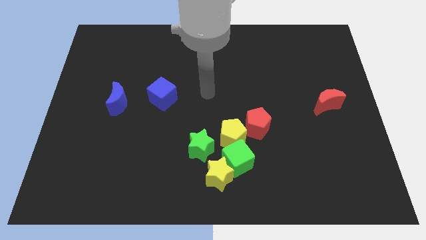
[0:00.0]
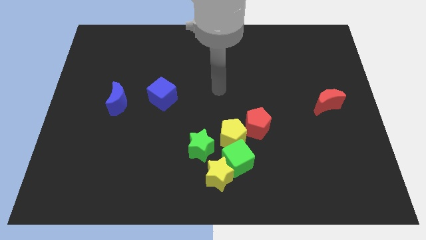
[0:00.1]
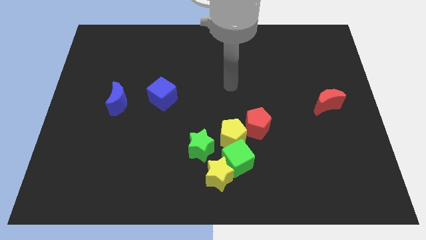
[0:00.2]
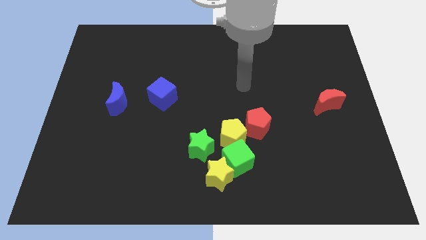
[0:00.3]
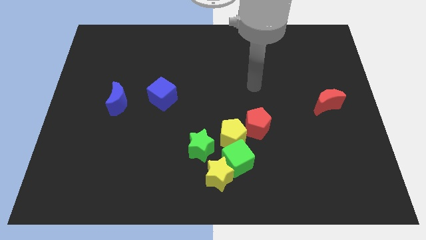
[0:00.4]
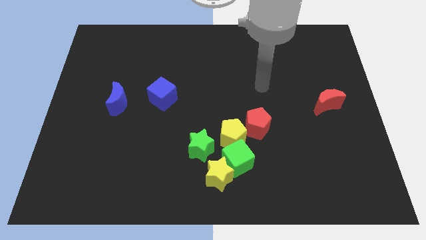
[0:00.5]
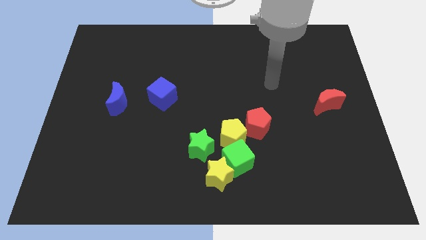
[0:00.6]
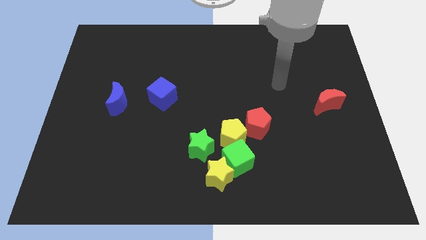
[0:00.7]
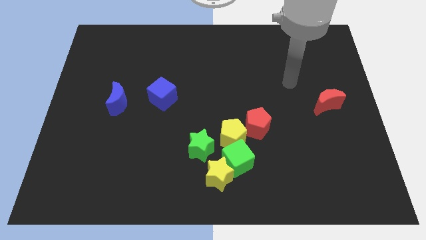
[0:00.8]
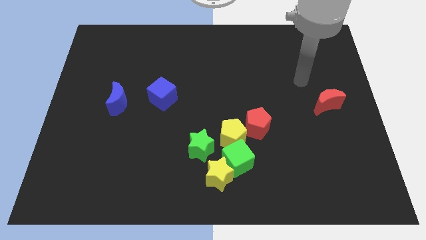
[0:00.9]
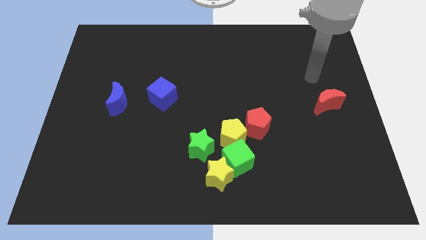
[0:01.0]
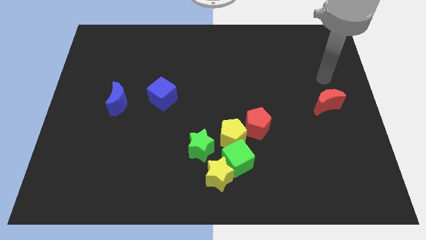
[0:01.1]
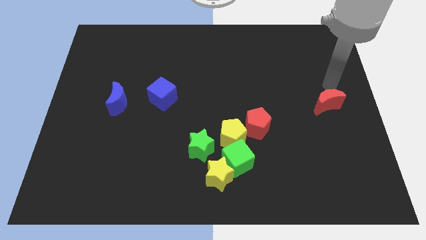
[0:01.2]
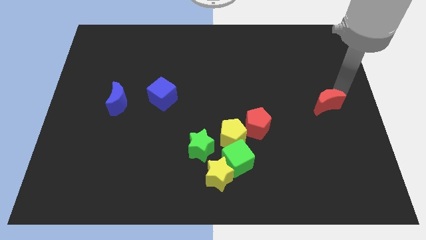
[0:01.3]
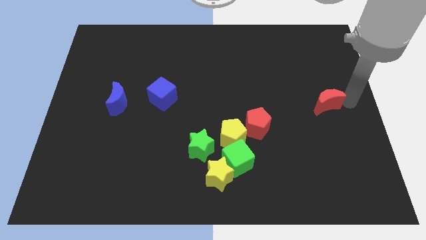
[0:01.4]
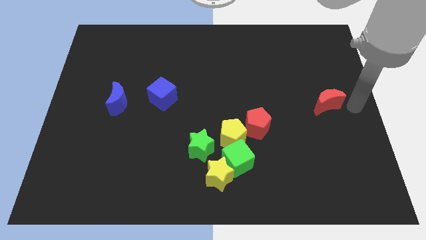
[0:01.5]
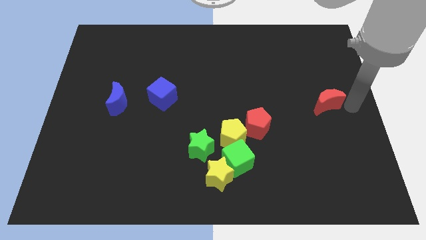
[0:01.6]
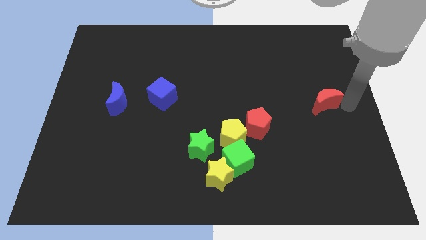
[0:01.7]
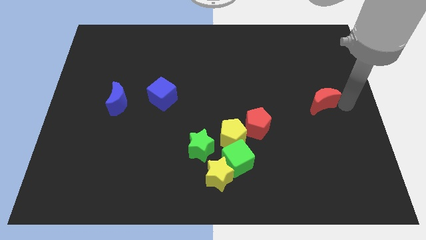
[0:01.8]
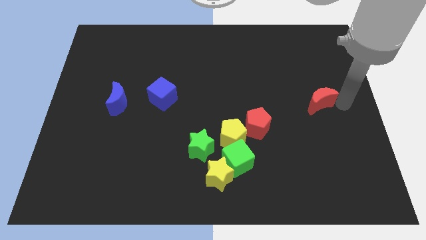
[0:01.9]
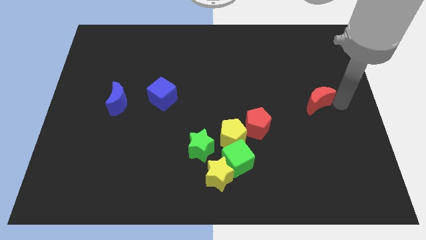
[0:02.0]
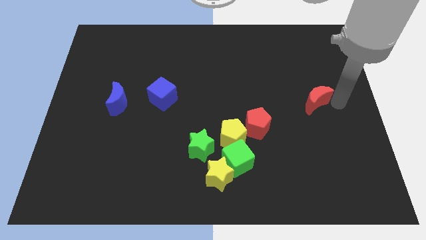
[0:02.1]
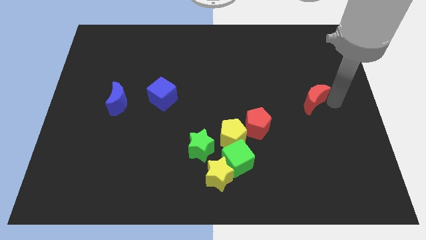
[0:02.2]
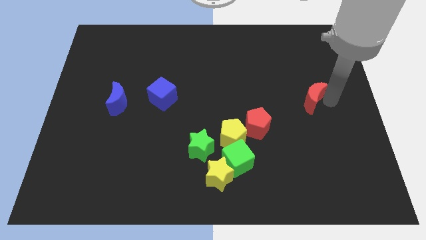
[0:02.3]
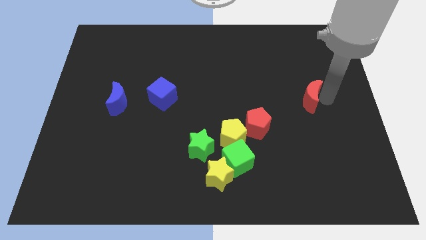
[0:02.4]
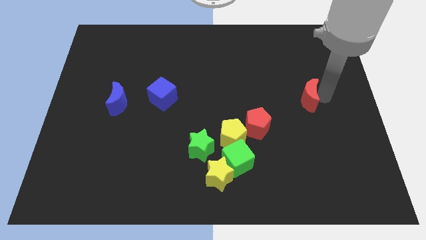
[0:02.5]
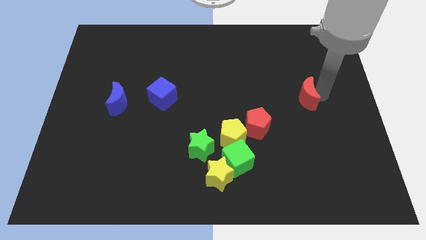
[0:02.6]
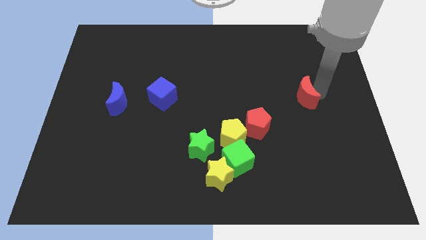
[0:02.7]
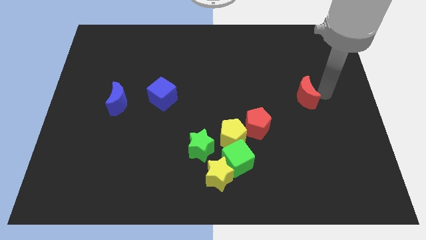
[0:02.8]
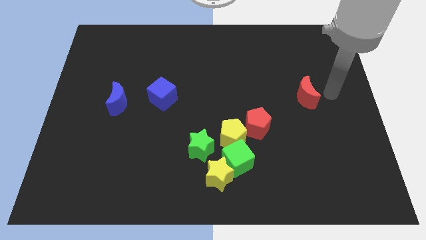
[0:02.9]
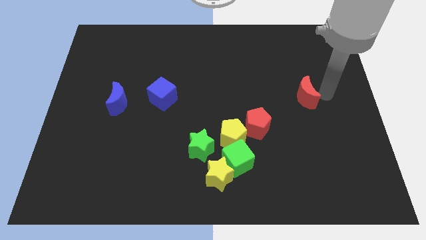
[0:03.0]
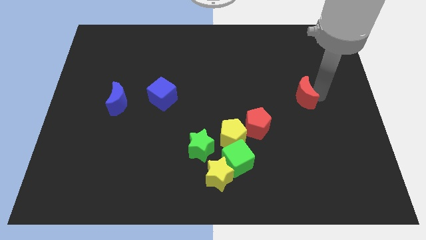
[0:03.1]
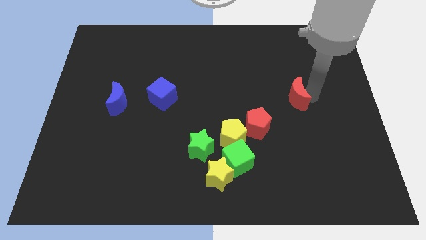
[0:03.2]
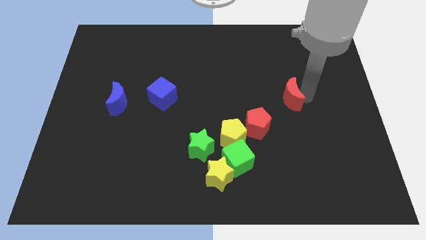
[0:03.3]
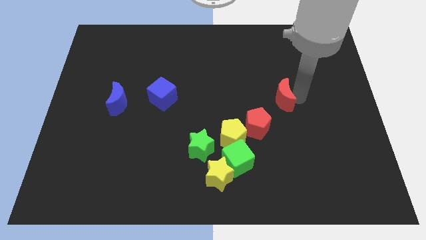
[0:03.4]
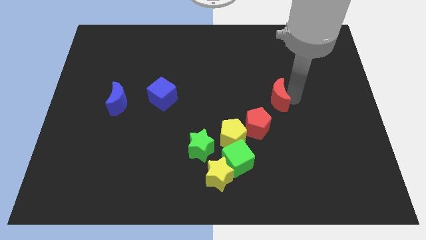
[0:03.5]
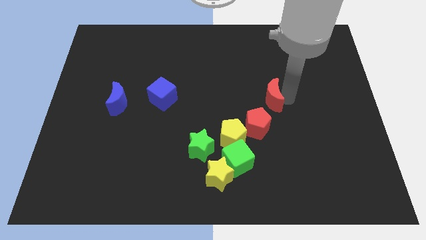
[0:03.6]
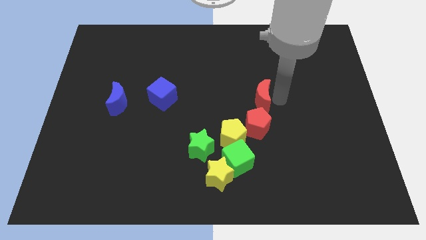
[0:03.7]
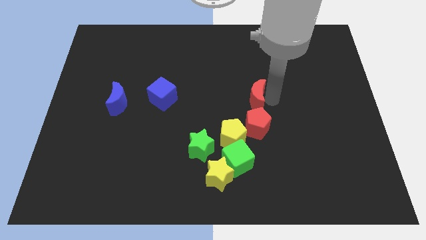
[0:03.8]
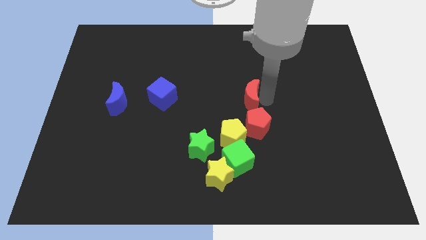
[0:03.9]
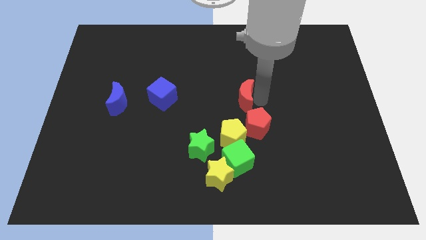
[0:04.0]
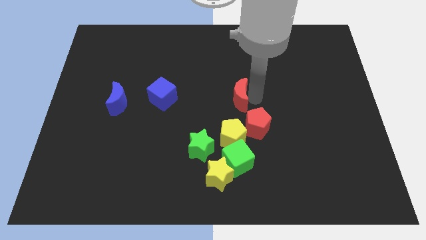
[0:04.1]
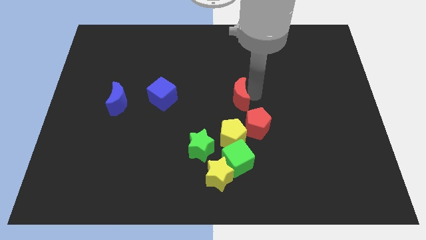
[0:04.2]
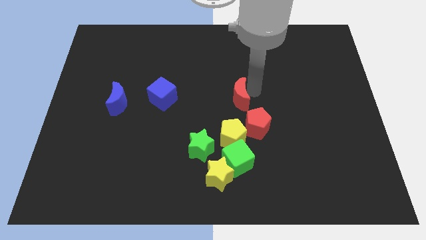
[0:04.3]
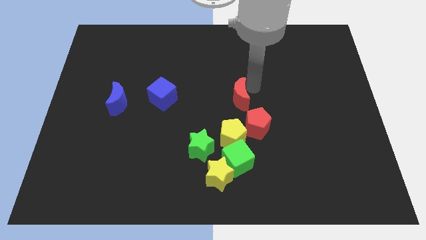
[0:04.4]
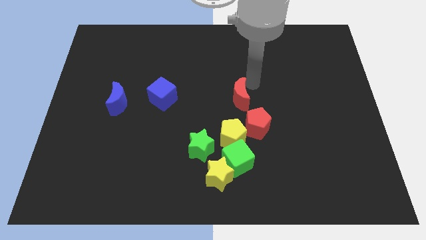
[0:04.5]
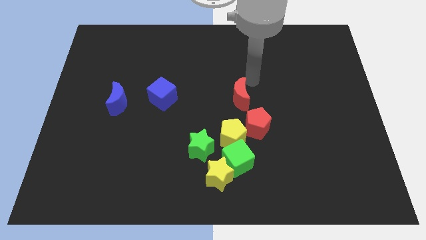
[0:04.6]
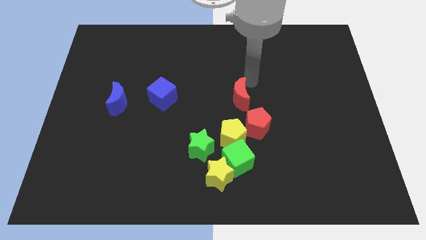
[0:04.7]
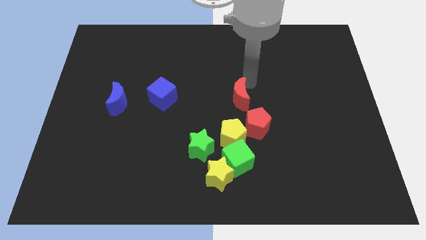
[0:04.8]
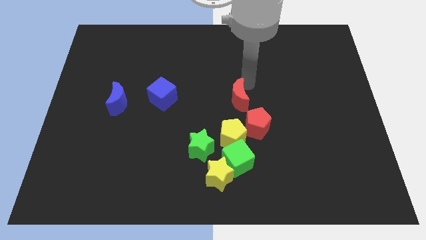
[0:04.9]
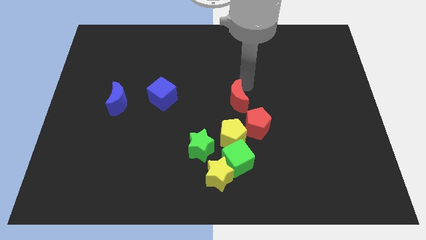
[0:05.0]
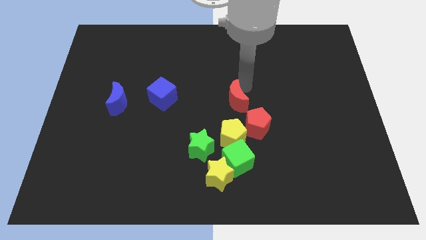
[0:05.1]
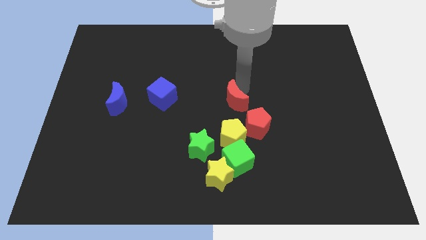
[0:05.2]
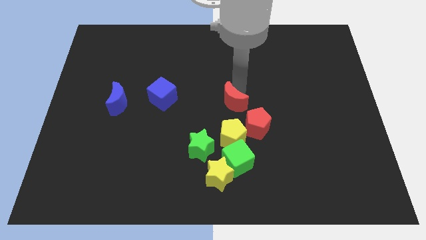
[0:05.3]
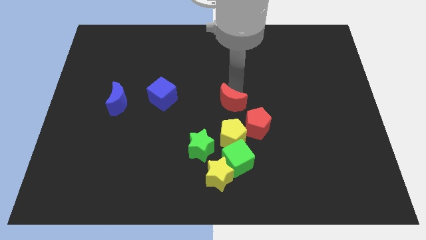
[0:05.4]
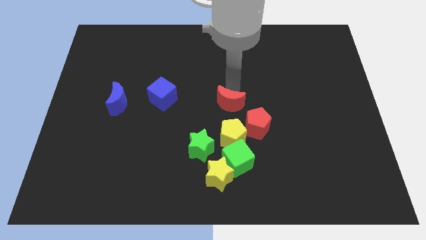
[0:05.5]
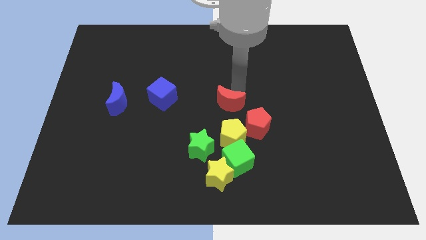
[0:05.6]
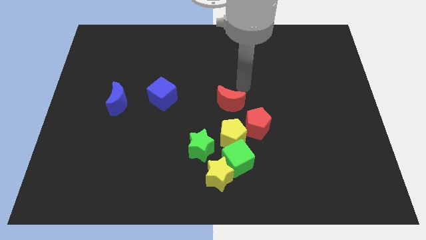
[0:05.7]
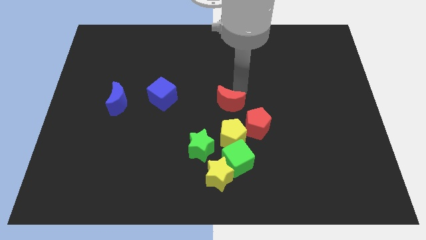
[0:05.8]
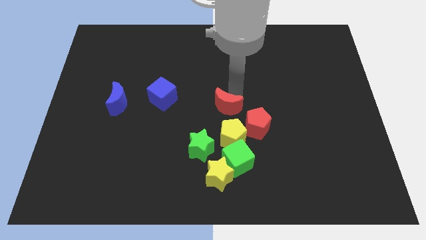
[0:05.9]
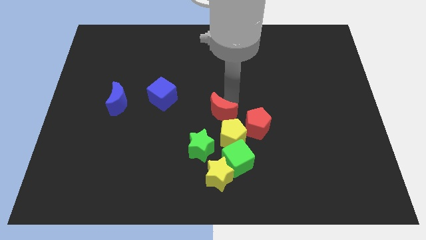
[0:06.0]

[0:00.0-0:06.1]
push the red moon left of the red pentagon

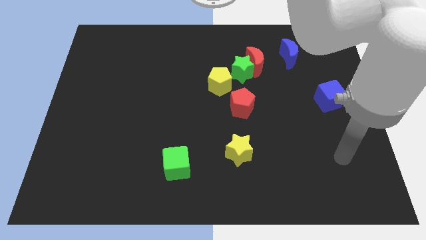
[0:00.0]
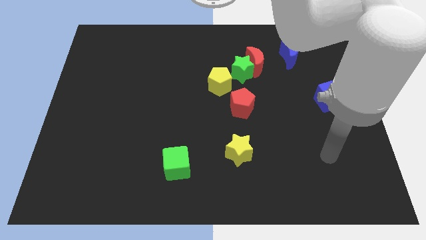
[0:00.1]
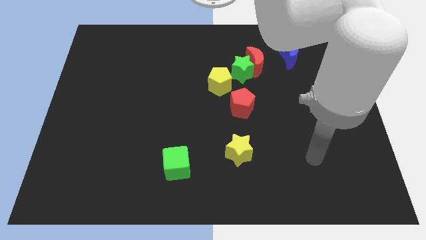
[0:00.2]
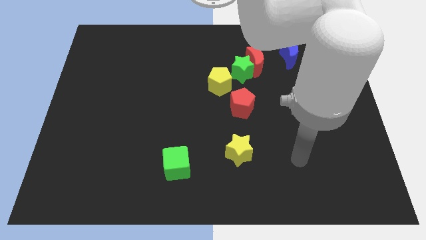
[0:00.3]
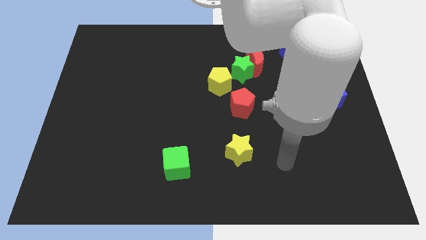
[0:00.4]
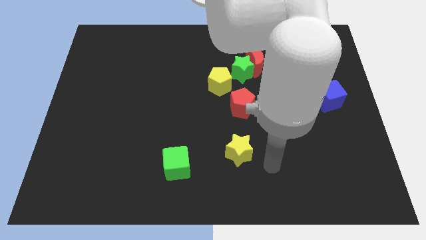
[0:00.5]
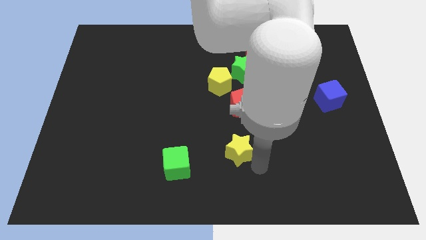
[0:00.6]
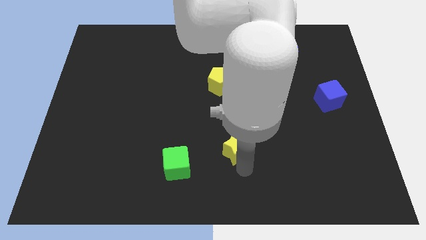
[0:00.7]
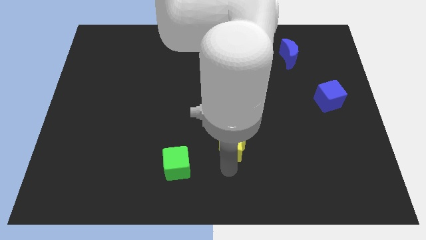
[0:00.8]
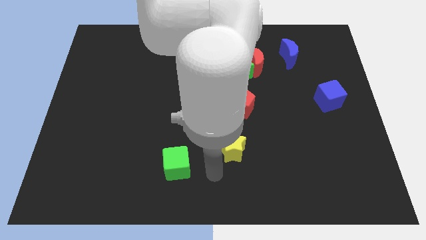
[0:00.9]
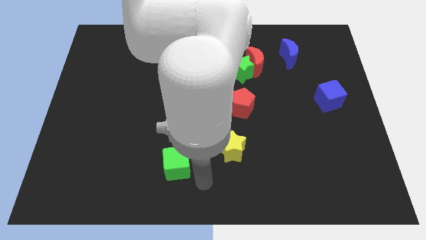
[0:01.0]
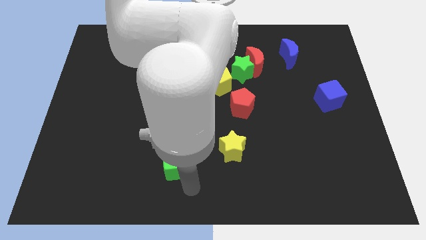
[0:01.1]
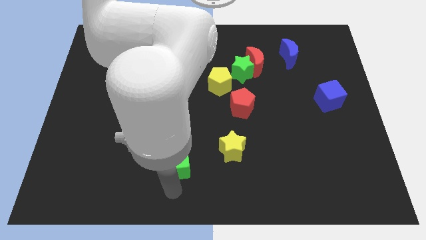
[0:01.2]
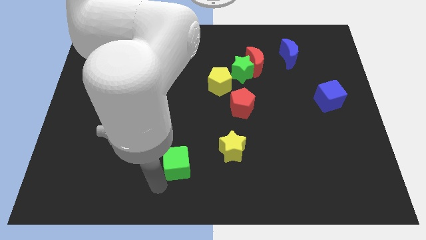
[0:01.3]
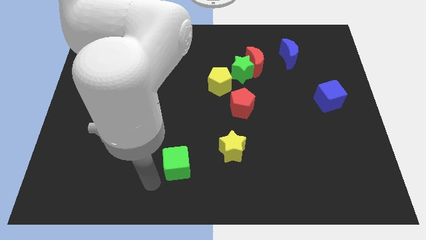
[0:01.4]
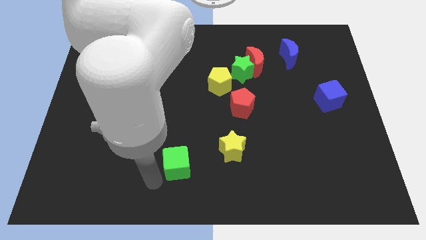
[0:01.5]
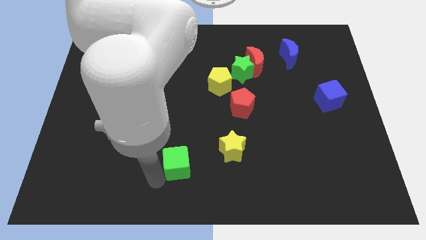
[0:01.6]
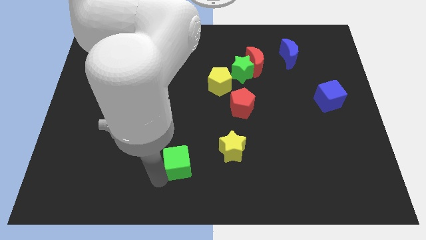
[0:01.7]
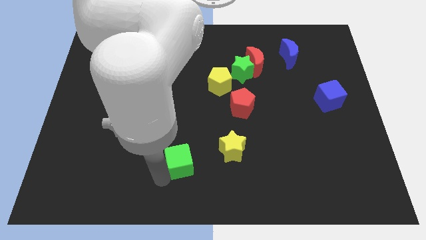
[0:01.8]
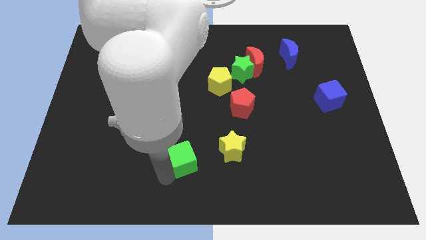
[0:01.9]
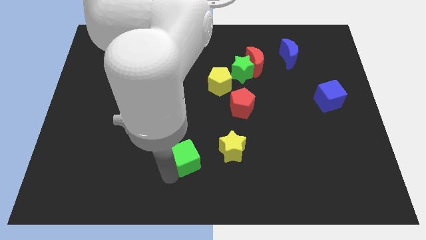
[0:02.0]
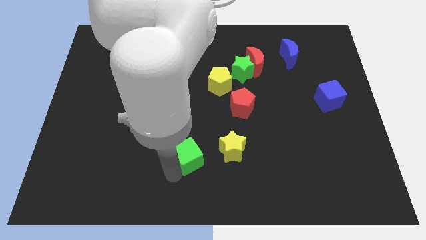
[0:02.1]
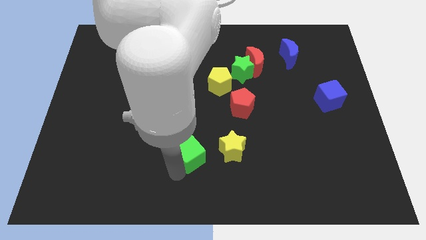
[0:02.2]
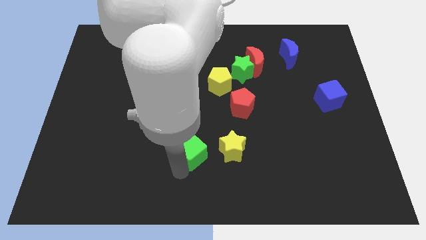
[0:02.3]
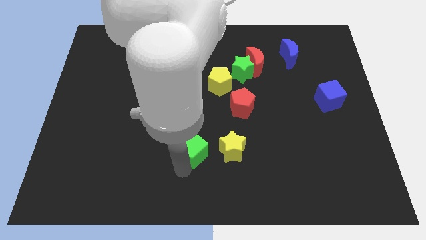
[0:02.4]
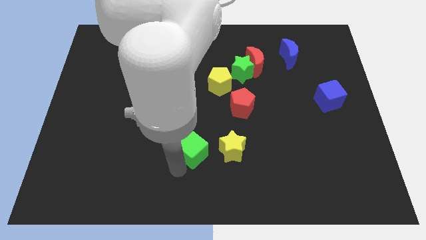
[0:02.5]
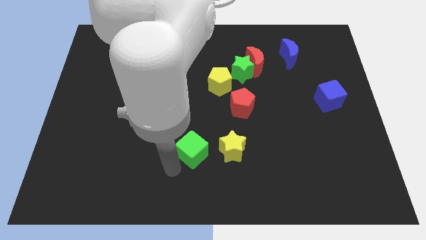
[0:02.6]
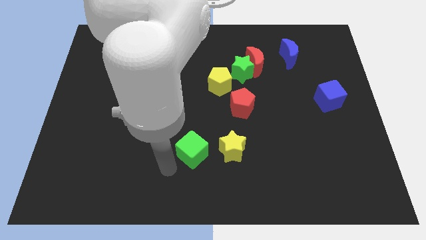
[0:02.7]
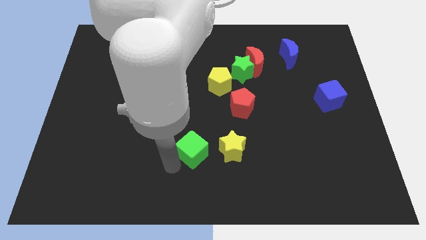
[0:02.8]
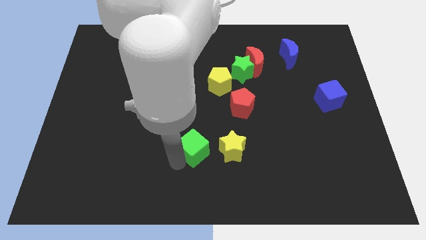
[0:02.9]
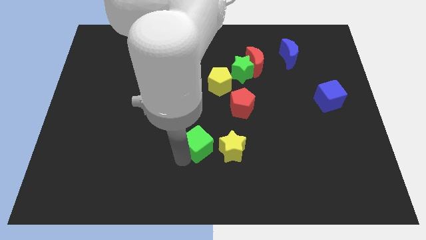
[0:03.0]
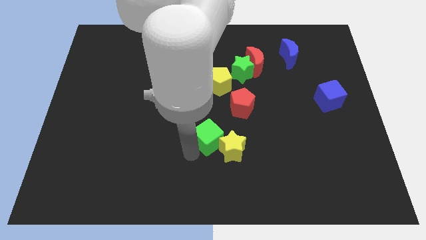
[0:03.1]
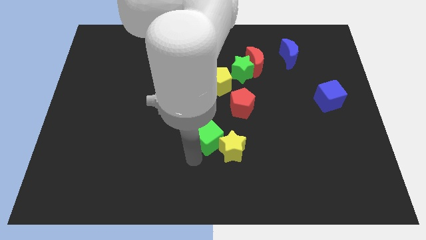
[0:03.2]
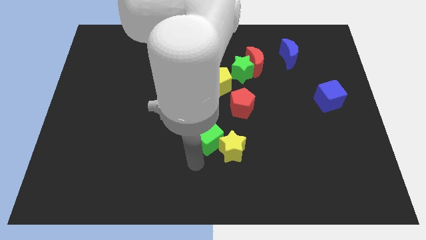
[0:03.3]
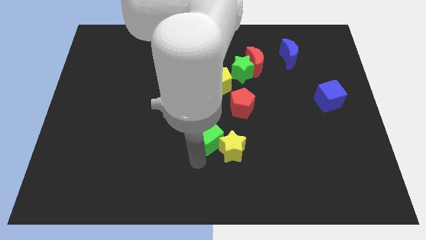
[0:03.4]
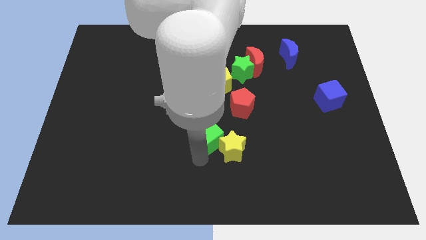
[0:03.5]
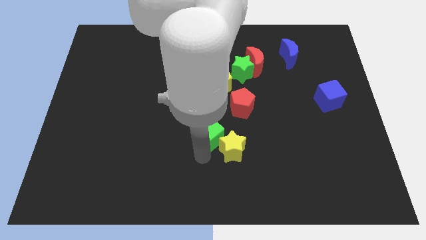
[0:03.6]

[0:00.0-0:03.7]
push the green cube to the bottom side of the yellow pentagon
